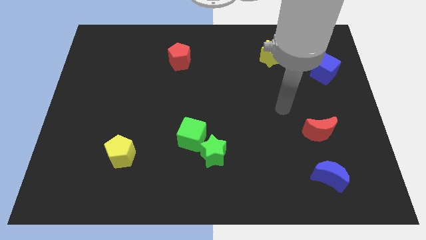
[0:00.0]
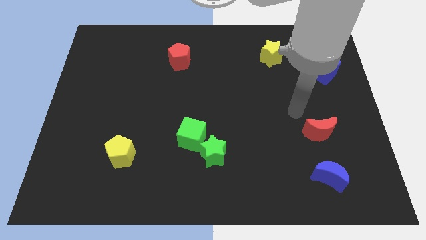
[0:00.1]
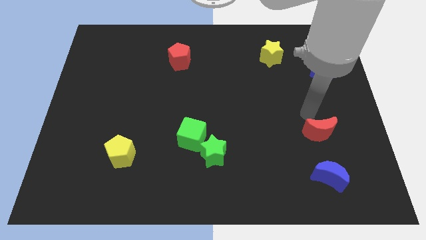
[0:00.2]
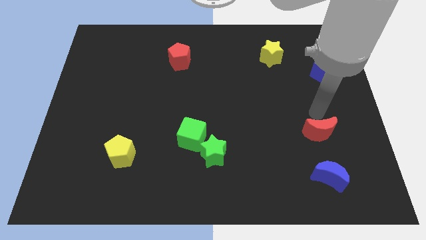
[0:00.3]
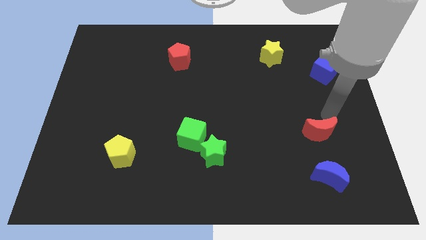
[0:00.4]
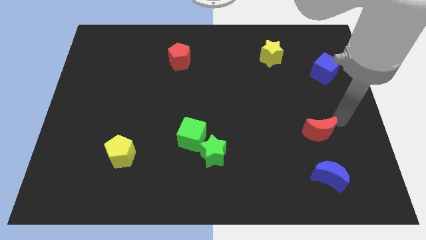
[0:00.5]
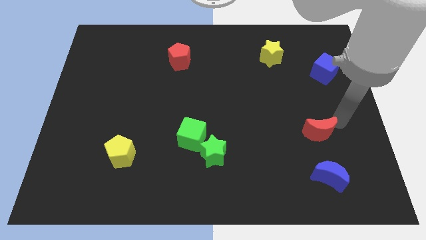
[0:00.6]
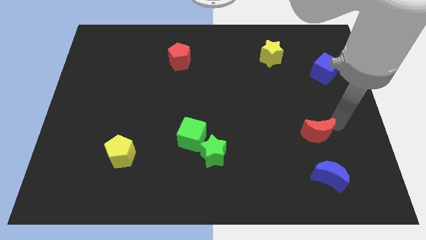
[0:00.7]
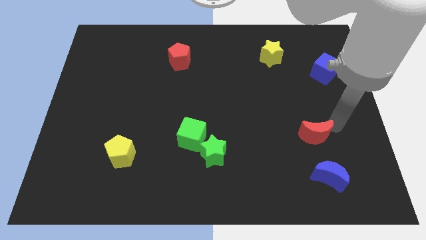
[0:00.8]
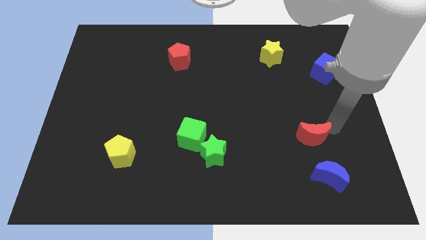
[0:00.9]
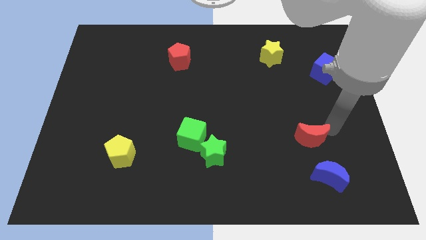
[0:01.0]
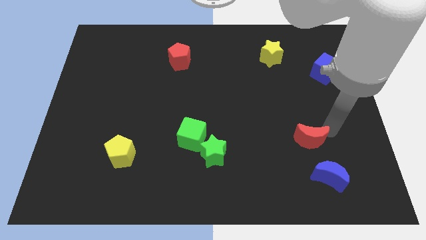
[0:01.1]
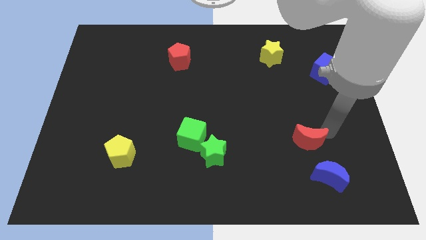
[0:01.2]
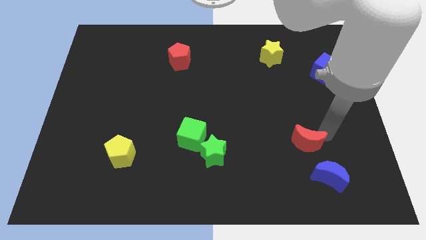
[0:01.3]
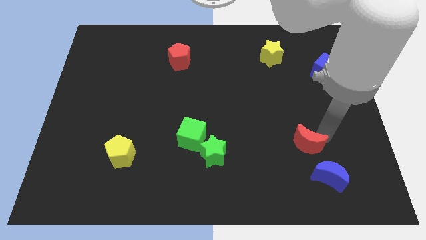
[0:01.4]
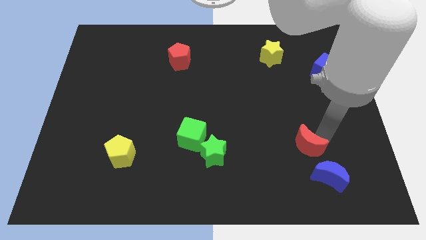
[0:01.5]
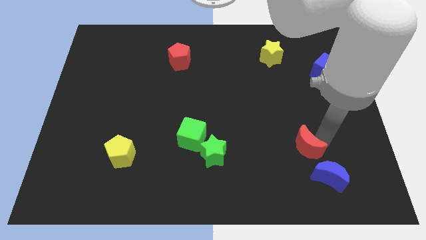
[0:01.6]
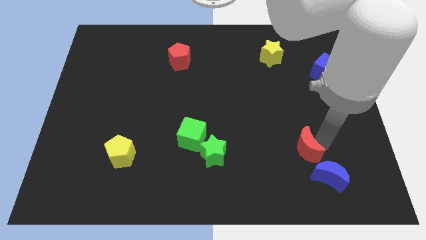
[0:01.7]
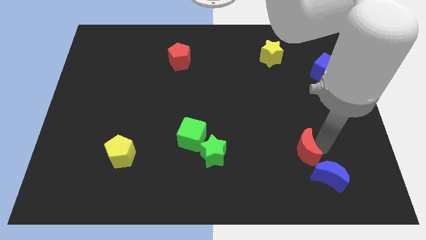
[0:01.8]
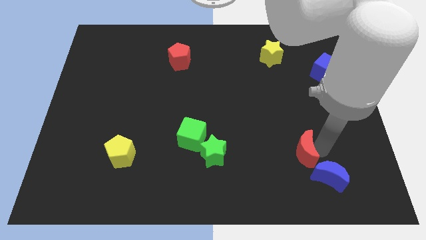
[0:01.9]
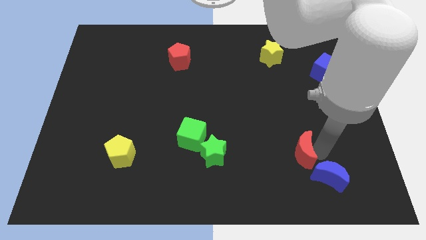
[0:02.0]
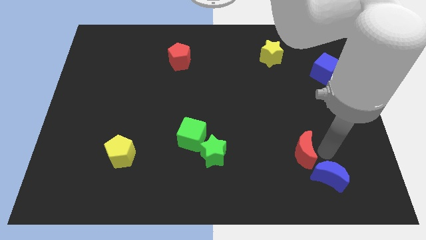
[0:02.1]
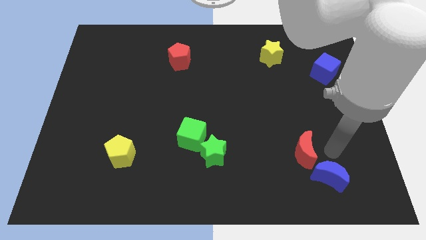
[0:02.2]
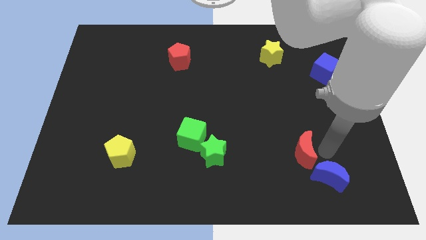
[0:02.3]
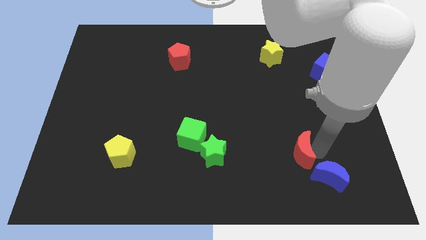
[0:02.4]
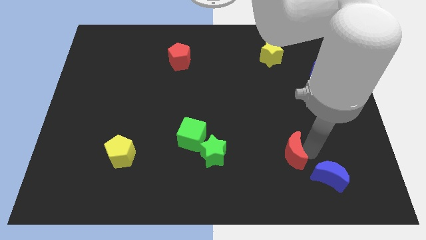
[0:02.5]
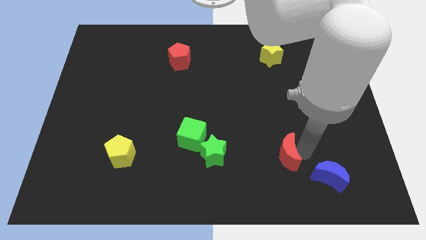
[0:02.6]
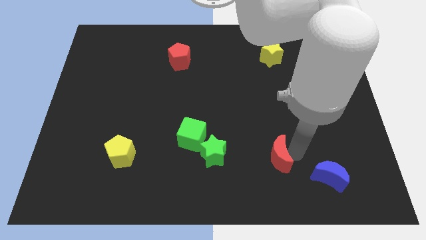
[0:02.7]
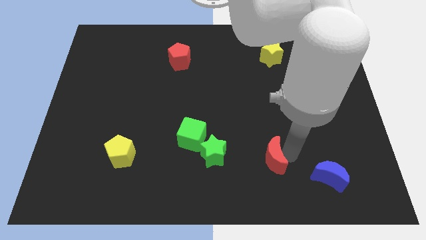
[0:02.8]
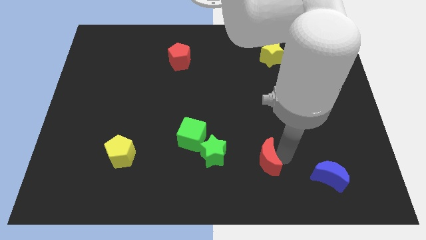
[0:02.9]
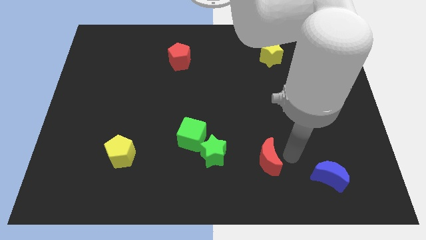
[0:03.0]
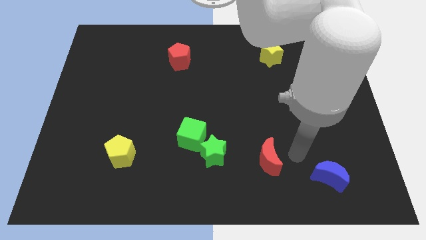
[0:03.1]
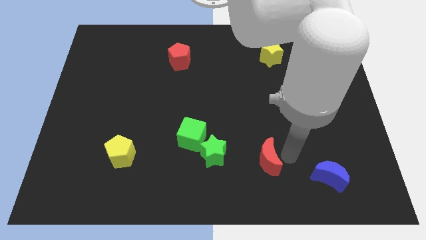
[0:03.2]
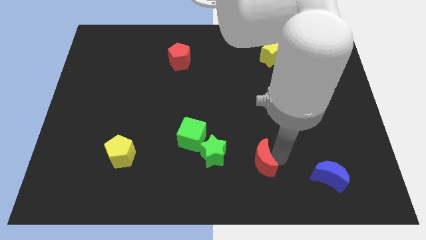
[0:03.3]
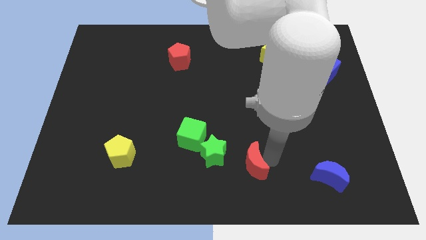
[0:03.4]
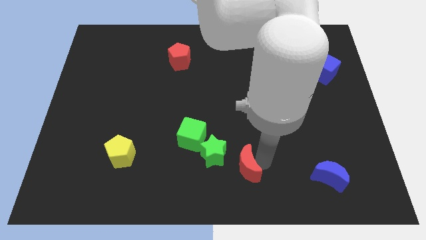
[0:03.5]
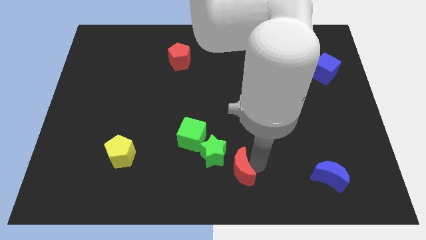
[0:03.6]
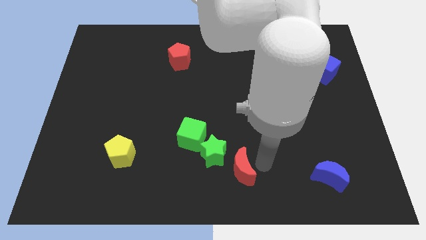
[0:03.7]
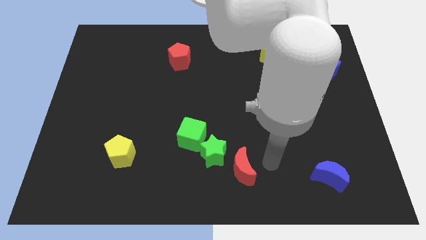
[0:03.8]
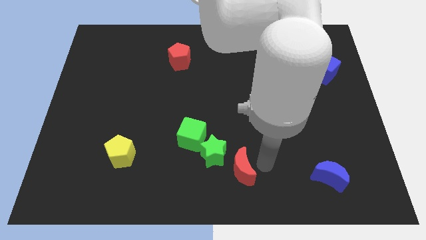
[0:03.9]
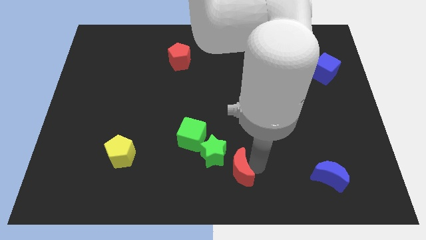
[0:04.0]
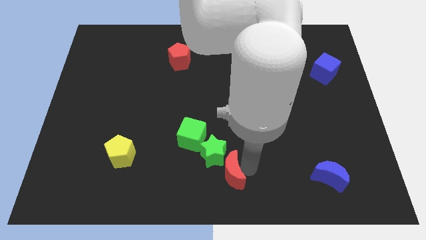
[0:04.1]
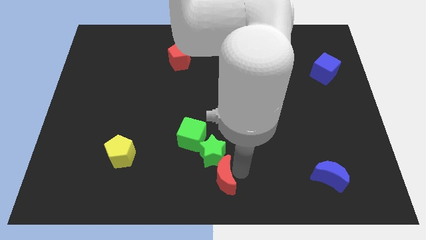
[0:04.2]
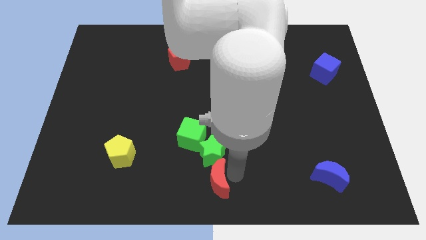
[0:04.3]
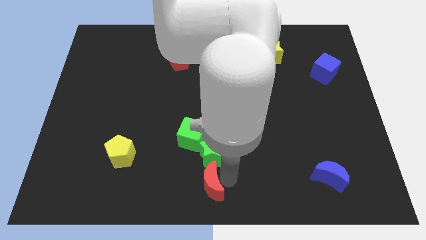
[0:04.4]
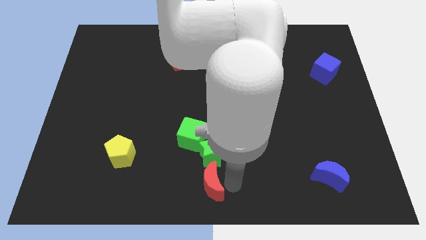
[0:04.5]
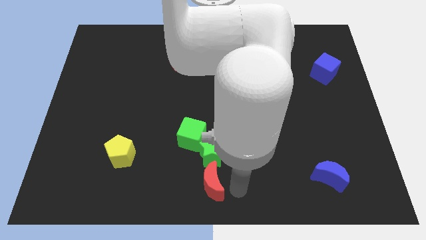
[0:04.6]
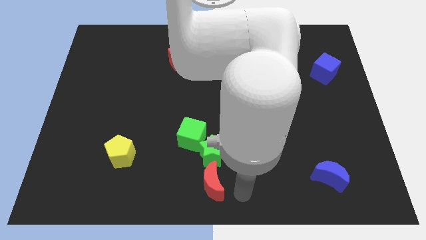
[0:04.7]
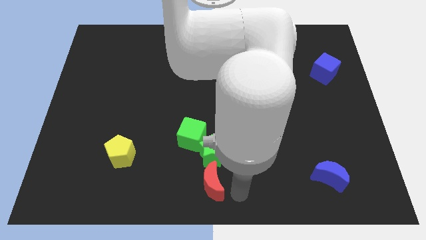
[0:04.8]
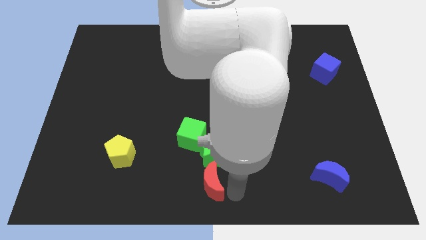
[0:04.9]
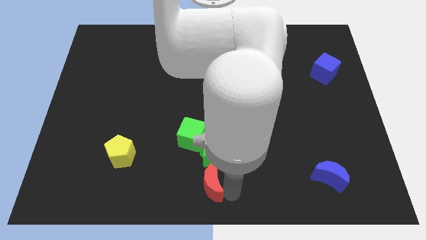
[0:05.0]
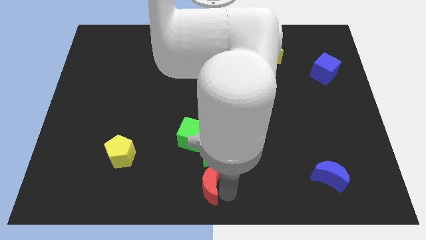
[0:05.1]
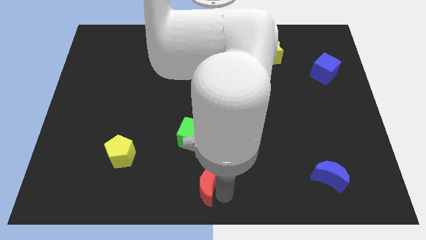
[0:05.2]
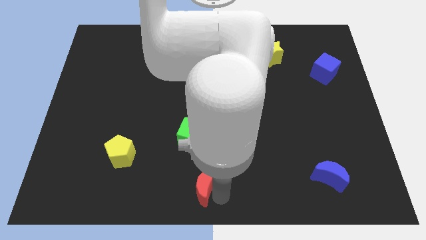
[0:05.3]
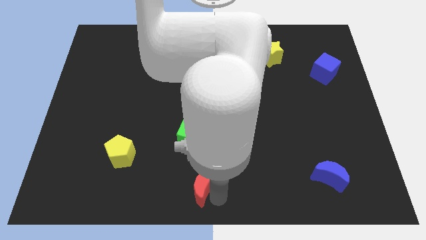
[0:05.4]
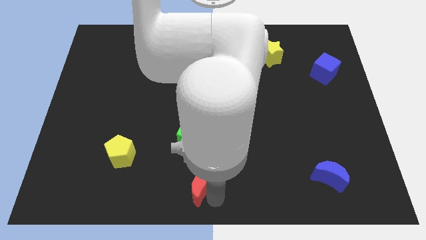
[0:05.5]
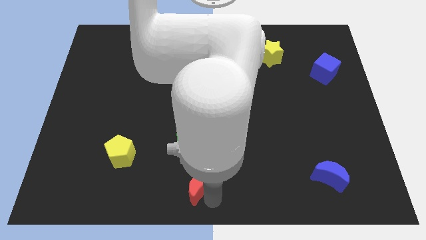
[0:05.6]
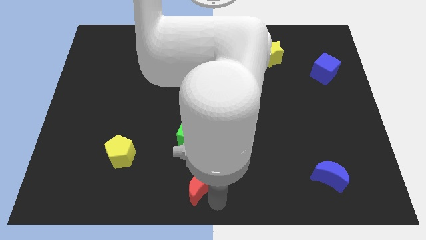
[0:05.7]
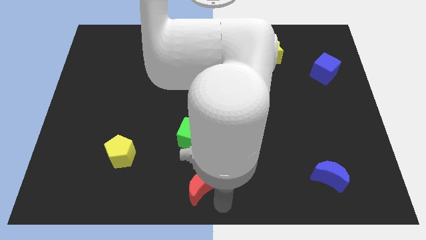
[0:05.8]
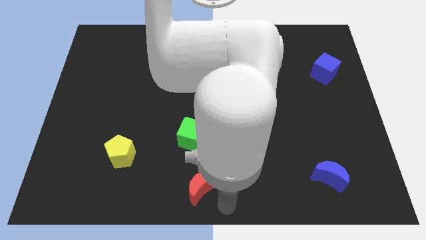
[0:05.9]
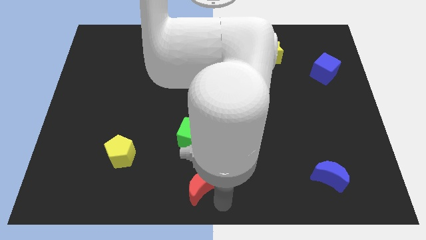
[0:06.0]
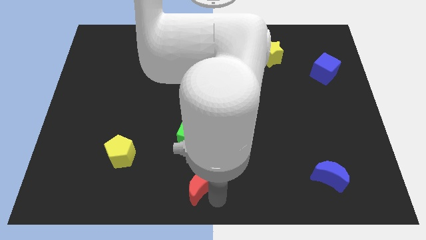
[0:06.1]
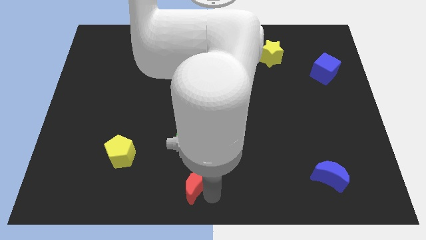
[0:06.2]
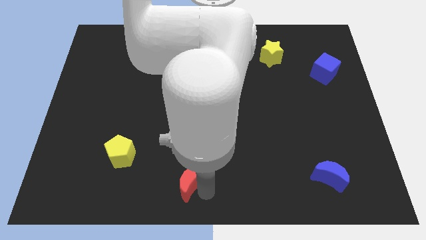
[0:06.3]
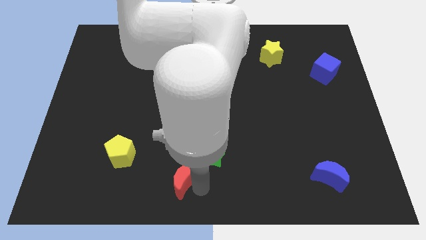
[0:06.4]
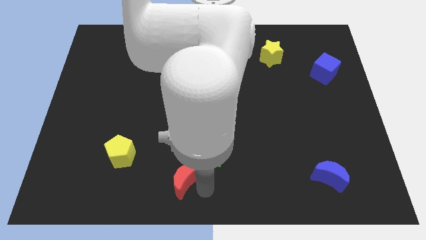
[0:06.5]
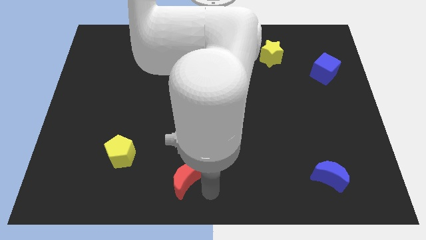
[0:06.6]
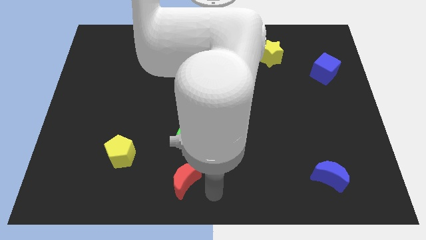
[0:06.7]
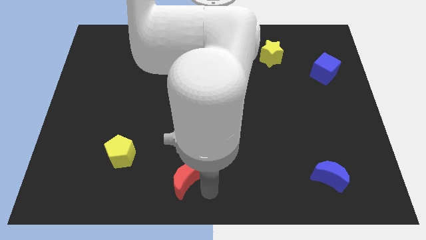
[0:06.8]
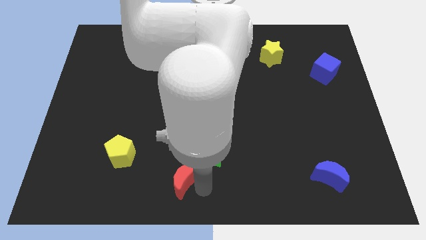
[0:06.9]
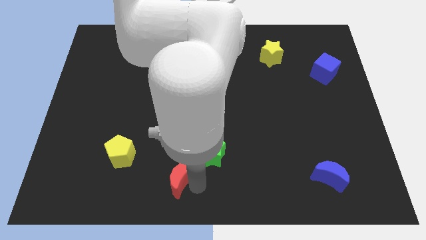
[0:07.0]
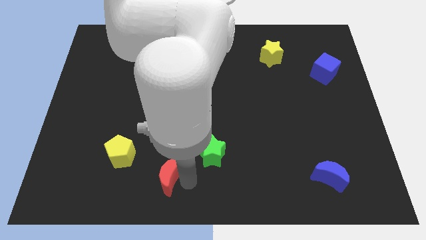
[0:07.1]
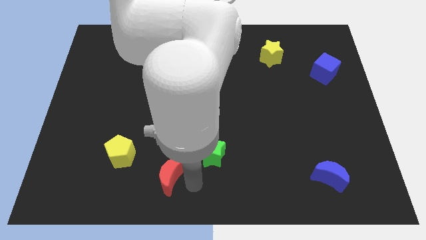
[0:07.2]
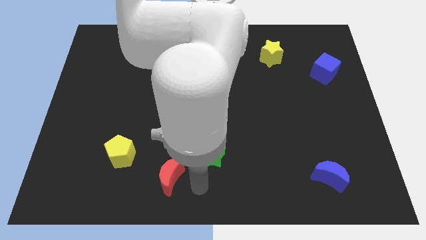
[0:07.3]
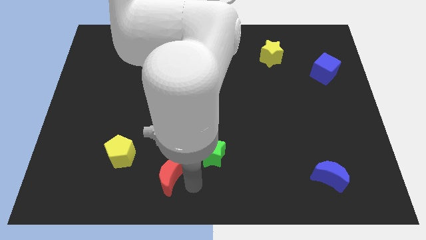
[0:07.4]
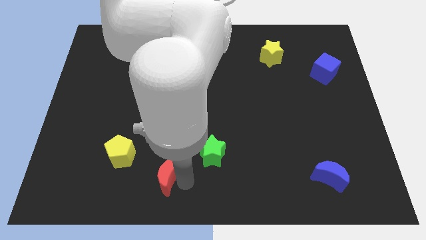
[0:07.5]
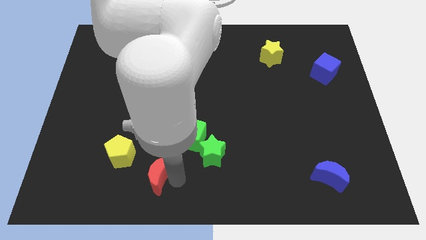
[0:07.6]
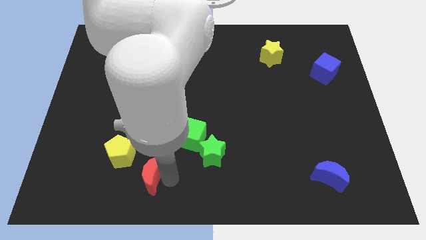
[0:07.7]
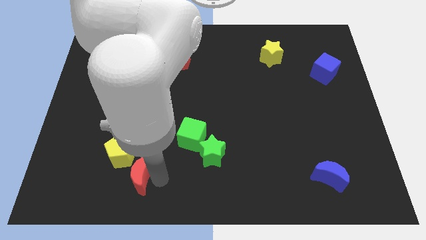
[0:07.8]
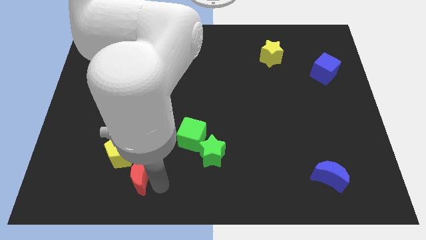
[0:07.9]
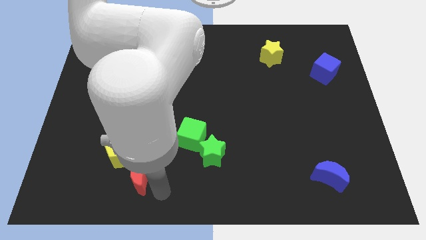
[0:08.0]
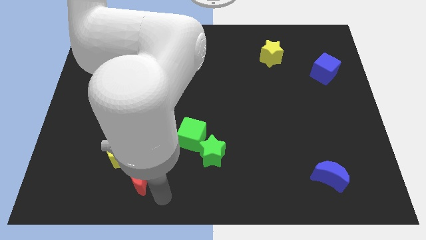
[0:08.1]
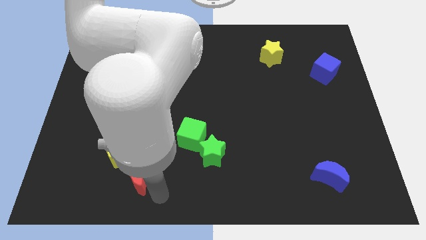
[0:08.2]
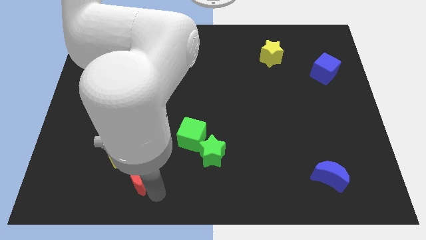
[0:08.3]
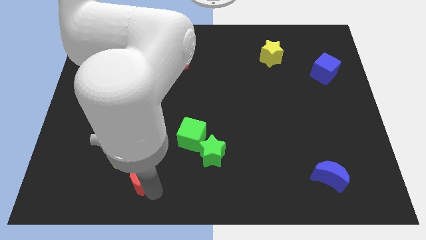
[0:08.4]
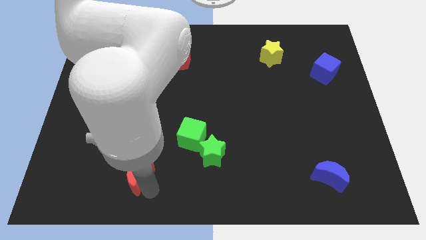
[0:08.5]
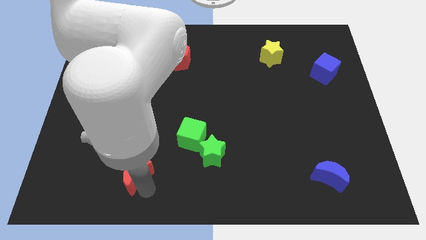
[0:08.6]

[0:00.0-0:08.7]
put the red moon towards the yellow pentagon
